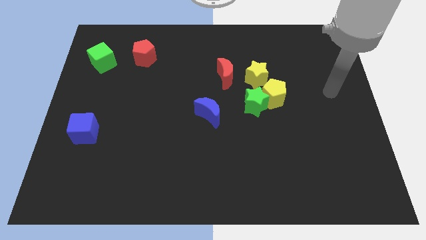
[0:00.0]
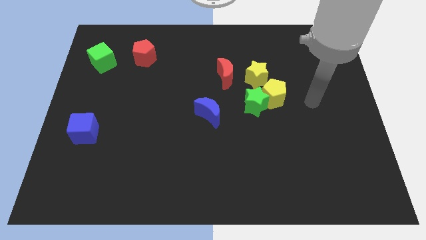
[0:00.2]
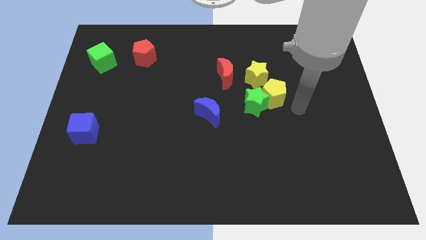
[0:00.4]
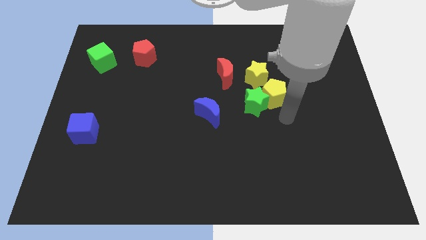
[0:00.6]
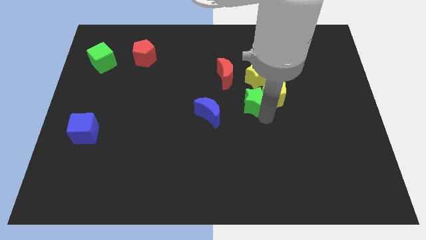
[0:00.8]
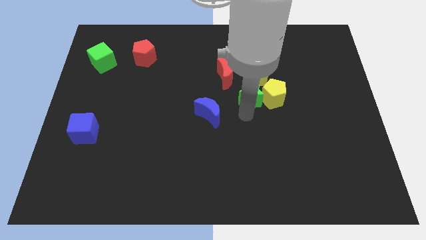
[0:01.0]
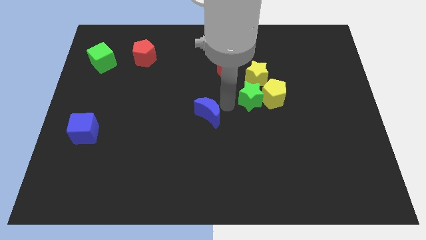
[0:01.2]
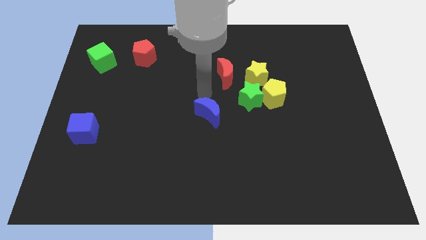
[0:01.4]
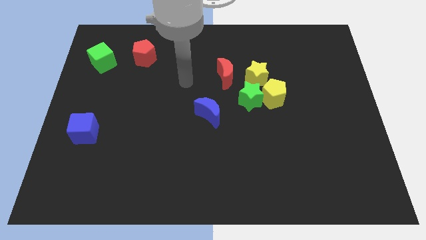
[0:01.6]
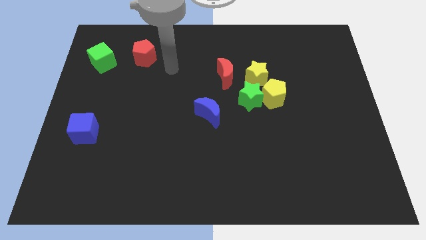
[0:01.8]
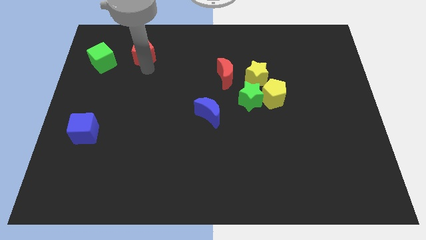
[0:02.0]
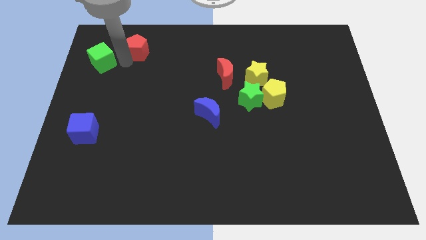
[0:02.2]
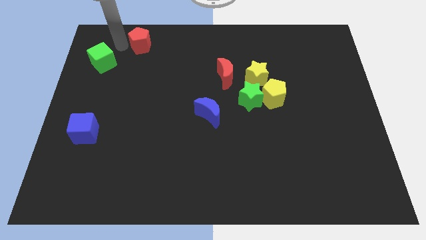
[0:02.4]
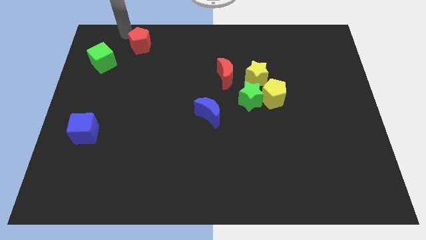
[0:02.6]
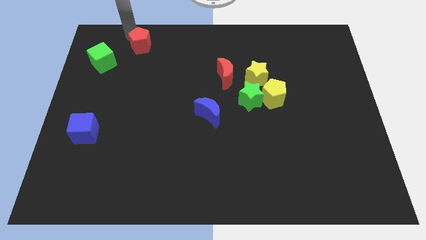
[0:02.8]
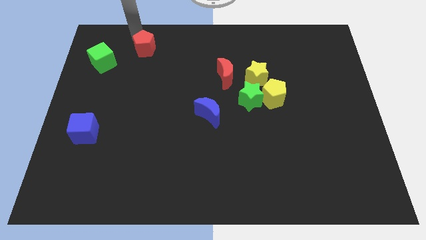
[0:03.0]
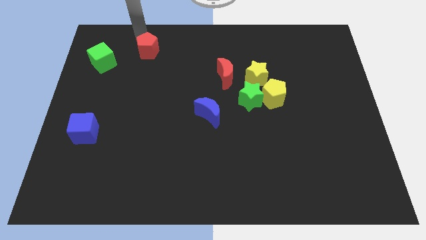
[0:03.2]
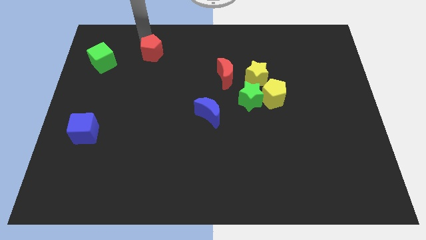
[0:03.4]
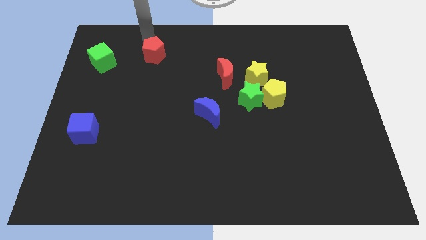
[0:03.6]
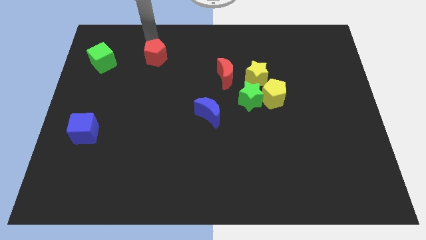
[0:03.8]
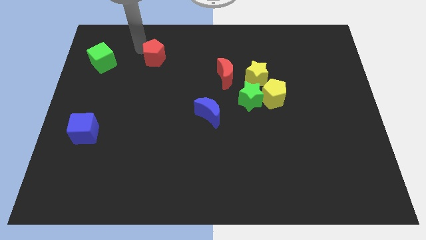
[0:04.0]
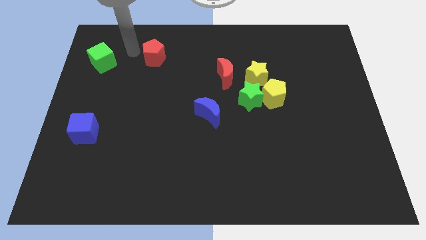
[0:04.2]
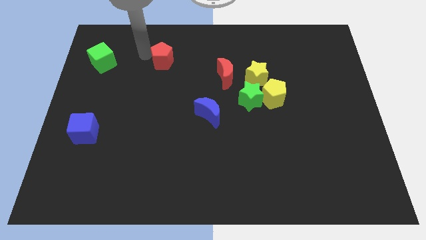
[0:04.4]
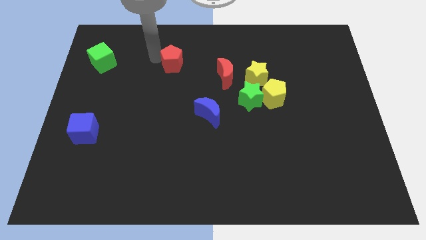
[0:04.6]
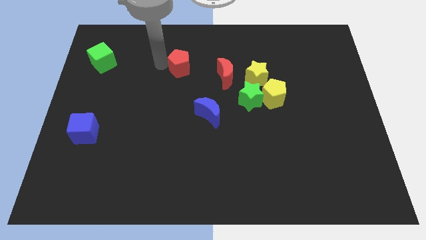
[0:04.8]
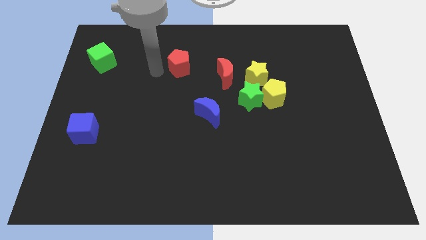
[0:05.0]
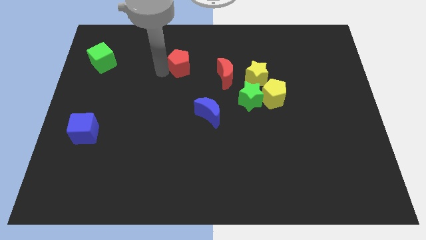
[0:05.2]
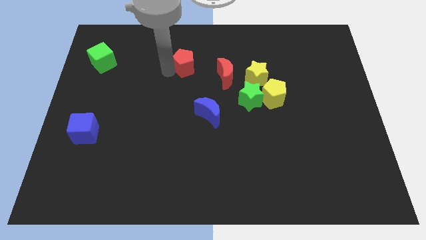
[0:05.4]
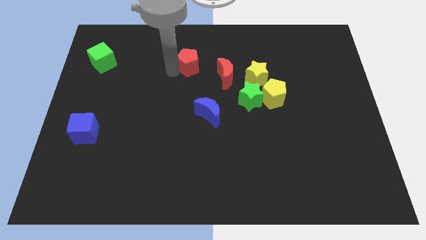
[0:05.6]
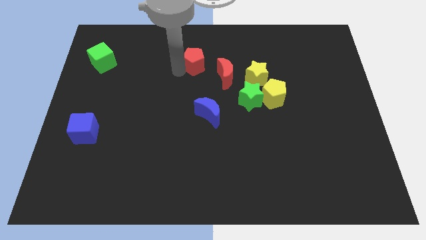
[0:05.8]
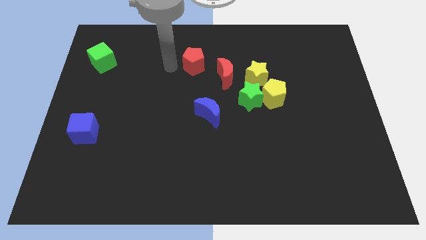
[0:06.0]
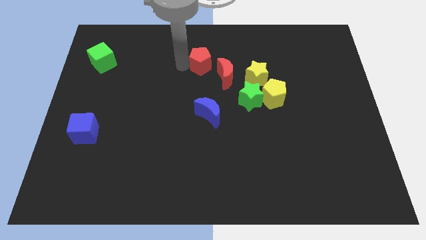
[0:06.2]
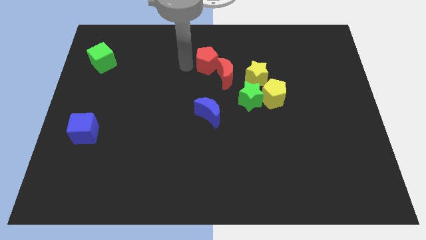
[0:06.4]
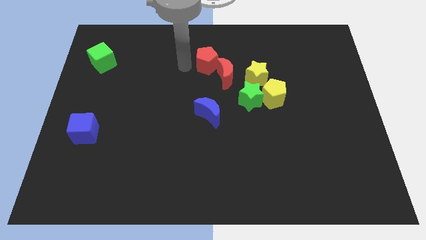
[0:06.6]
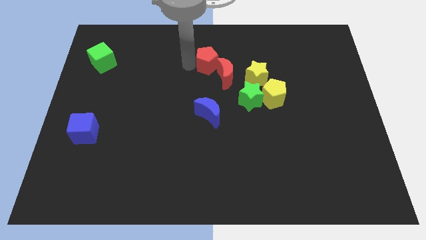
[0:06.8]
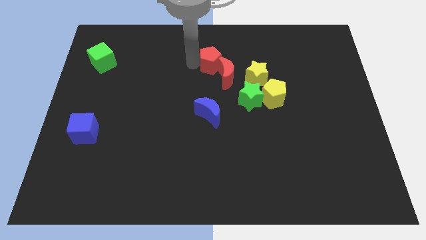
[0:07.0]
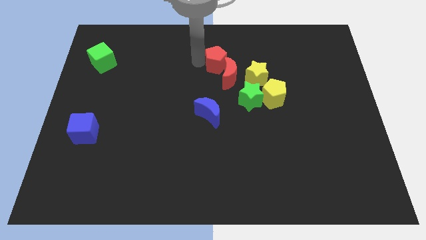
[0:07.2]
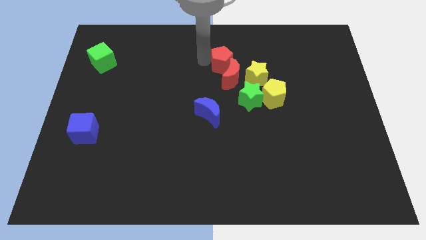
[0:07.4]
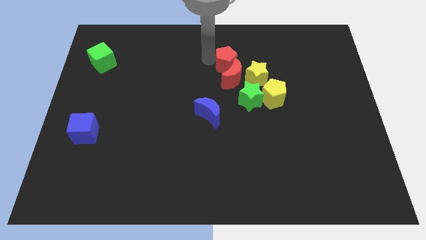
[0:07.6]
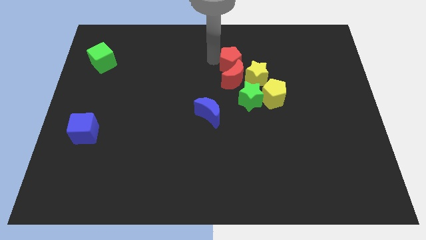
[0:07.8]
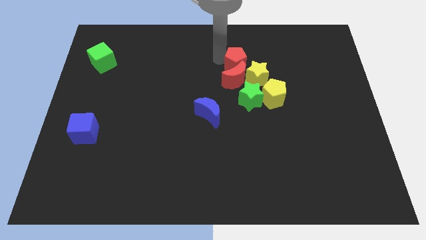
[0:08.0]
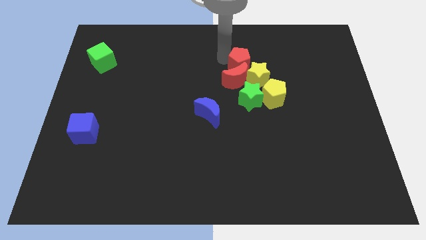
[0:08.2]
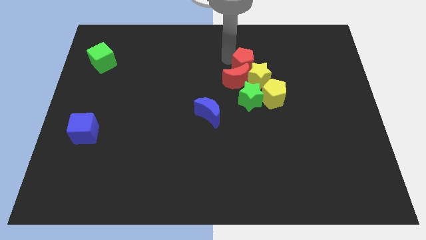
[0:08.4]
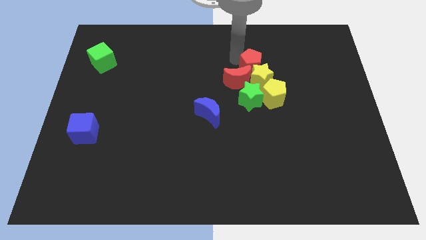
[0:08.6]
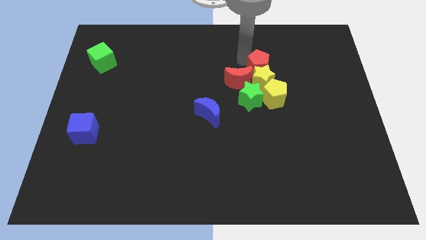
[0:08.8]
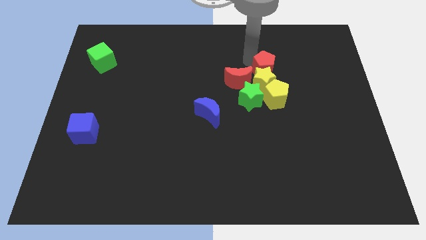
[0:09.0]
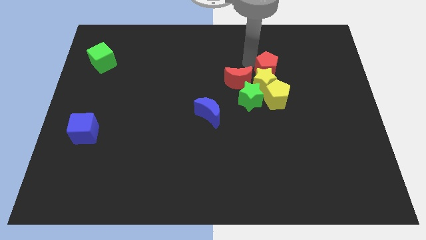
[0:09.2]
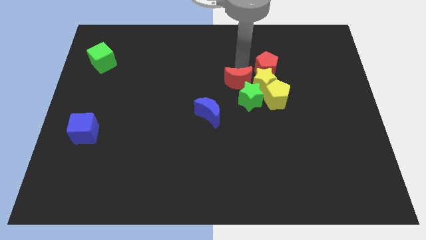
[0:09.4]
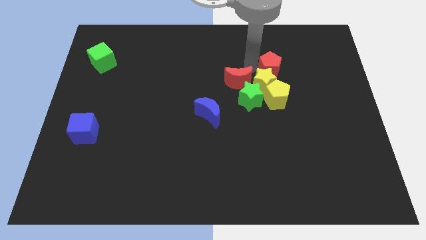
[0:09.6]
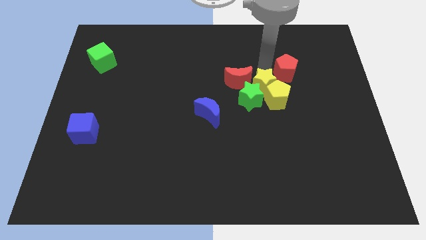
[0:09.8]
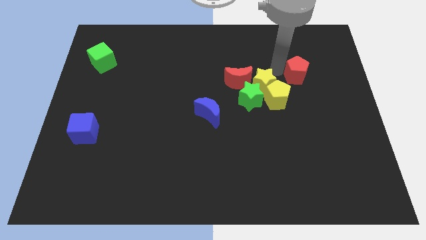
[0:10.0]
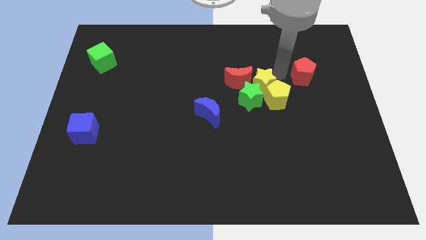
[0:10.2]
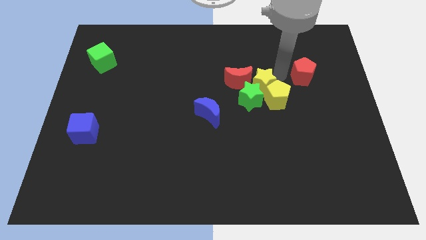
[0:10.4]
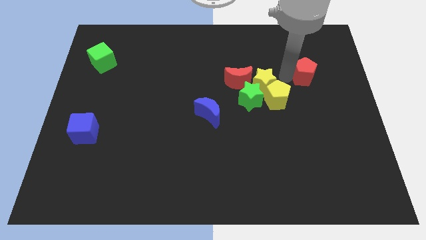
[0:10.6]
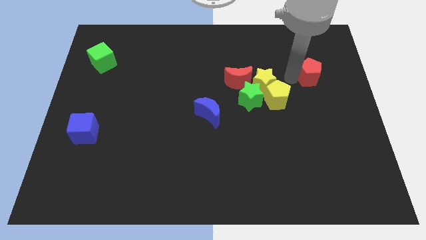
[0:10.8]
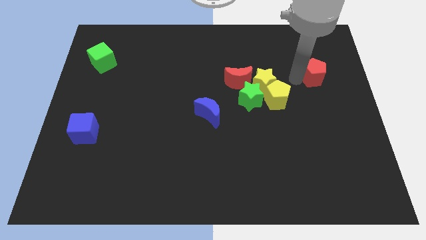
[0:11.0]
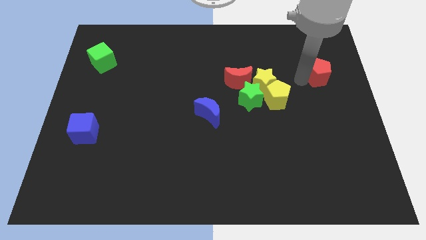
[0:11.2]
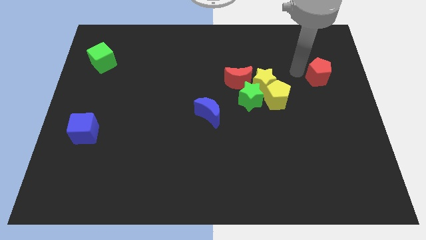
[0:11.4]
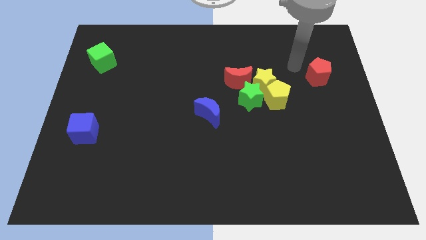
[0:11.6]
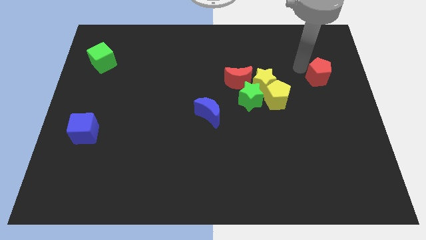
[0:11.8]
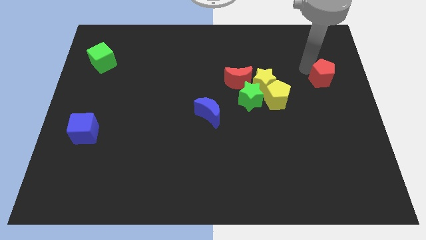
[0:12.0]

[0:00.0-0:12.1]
push the red pentagon to the right side

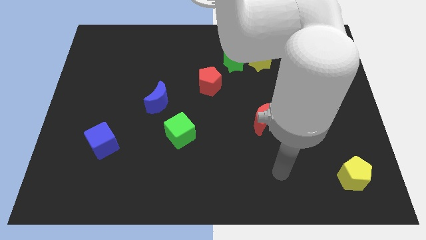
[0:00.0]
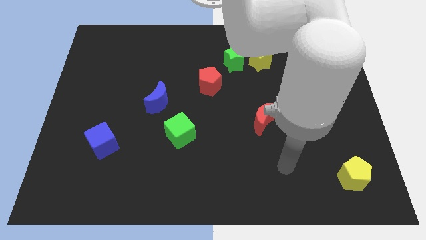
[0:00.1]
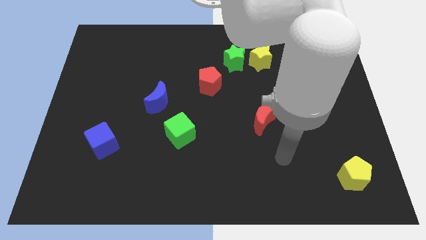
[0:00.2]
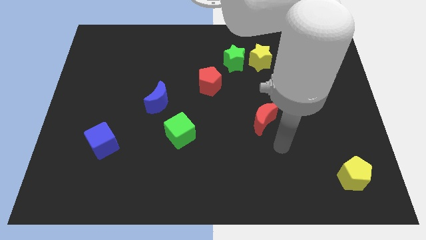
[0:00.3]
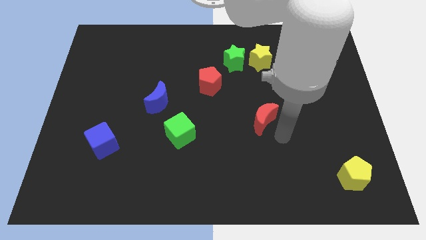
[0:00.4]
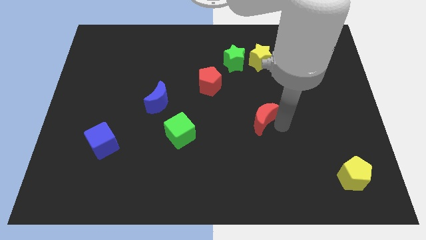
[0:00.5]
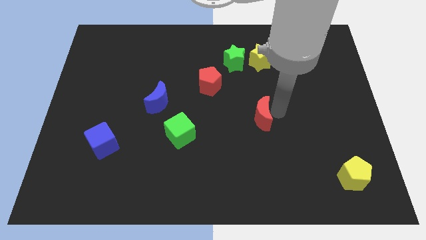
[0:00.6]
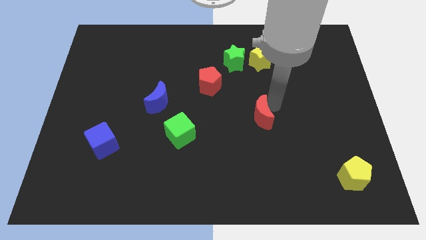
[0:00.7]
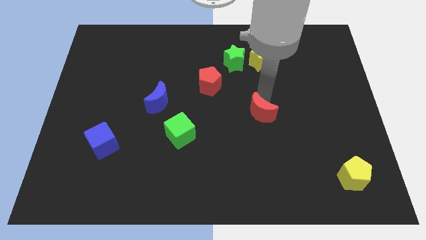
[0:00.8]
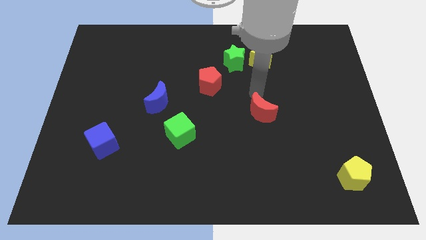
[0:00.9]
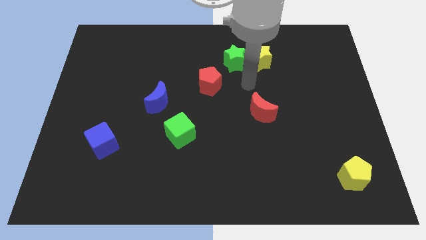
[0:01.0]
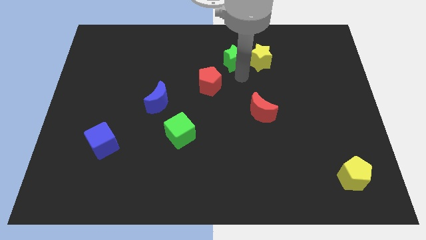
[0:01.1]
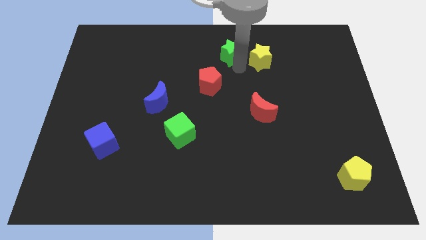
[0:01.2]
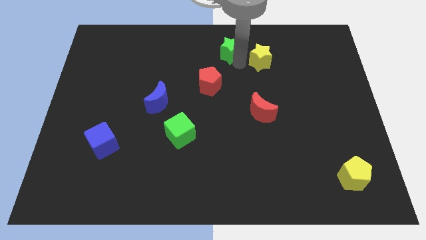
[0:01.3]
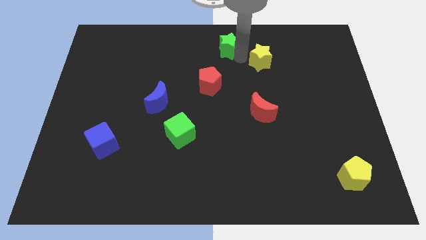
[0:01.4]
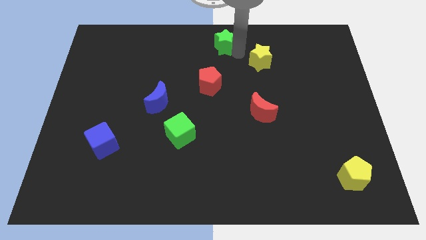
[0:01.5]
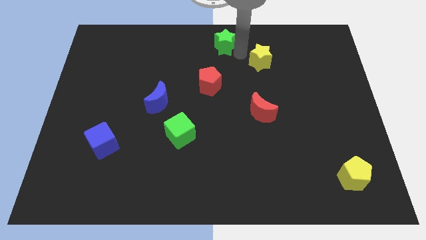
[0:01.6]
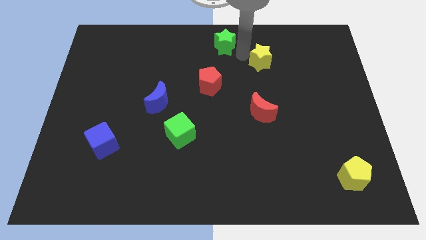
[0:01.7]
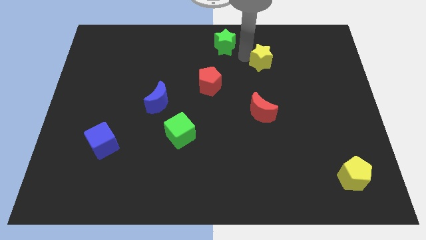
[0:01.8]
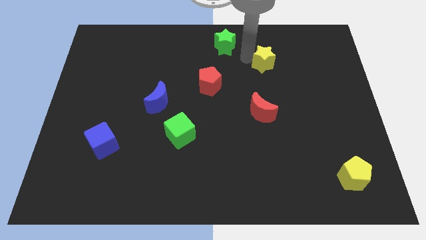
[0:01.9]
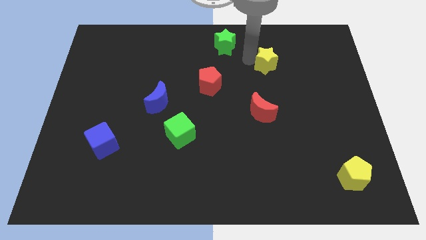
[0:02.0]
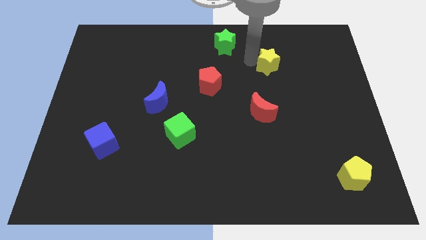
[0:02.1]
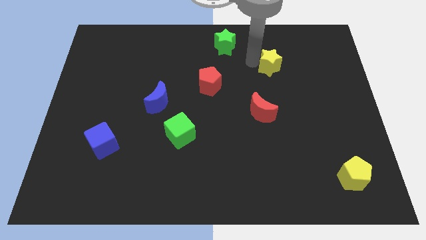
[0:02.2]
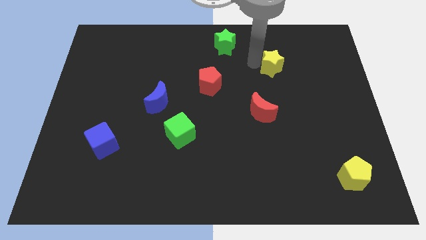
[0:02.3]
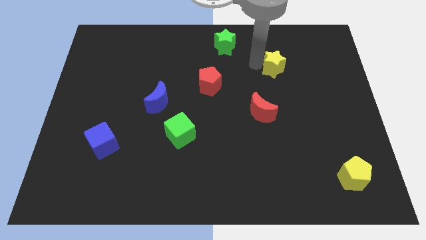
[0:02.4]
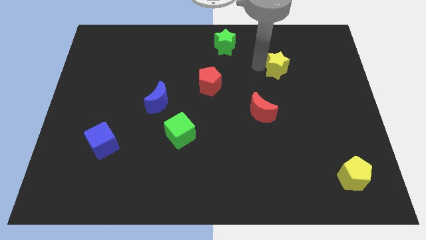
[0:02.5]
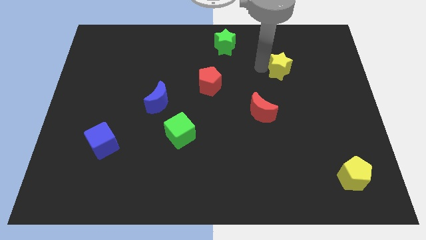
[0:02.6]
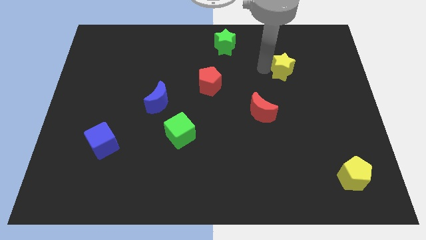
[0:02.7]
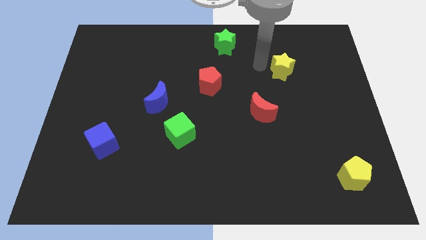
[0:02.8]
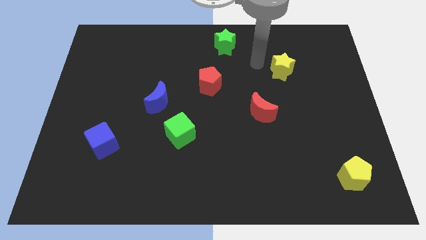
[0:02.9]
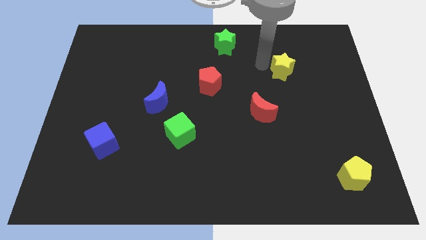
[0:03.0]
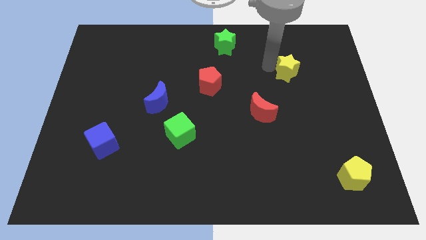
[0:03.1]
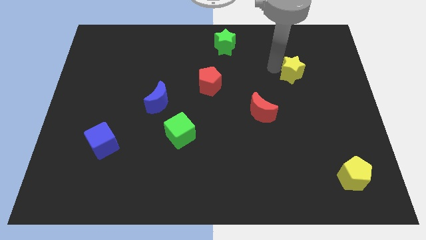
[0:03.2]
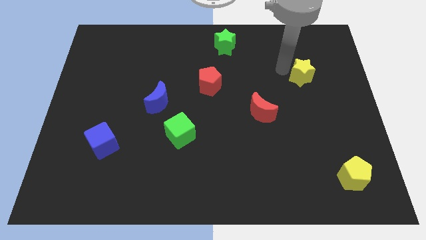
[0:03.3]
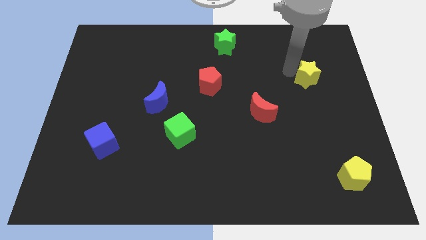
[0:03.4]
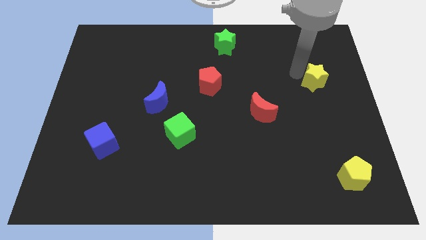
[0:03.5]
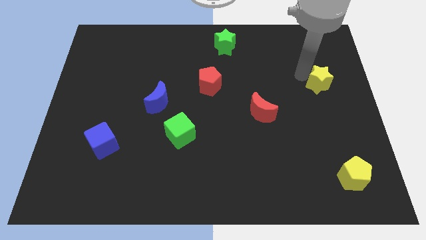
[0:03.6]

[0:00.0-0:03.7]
put the yellow star to the right side
